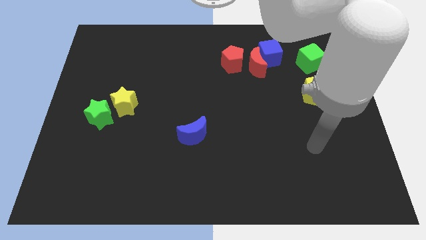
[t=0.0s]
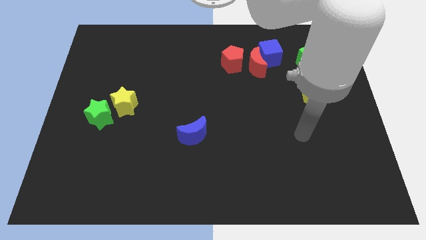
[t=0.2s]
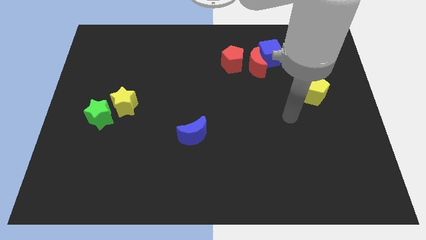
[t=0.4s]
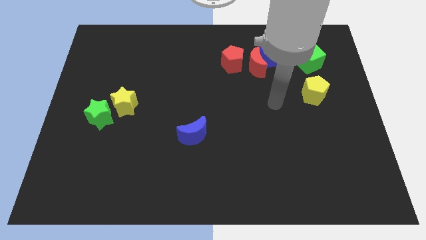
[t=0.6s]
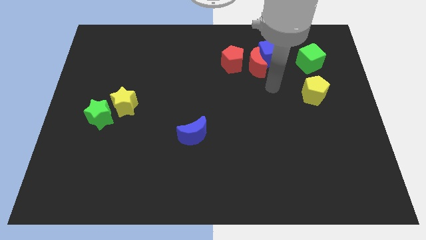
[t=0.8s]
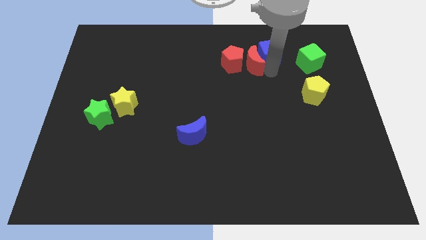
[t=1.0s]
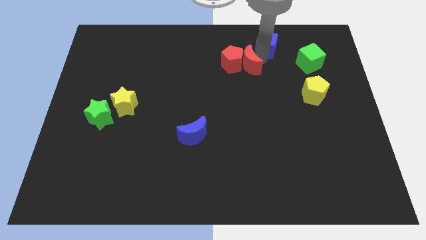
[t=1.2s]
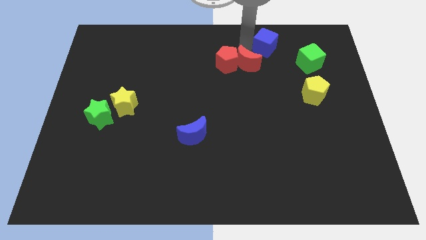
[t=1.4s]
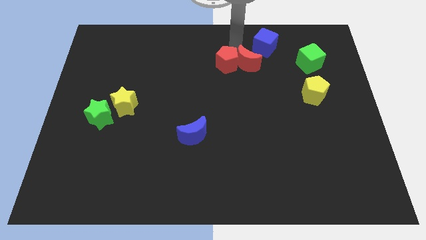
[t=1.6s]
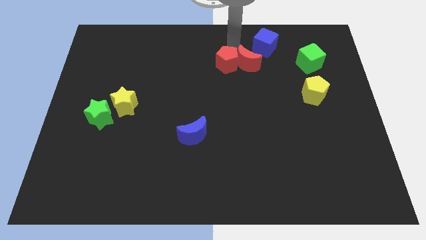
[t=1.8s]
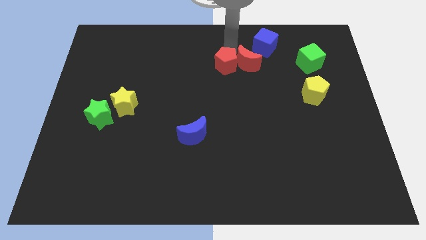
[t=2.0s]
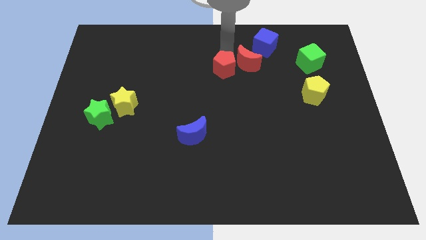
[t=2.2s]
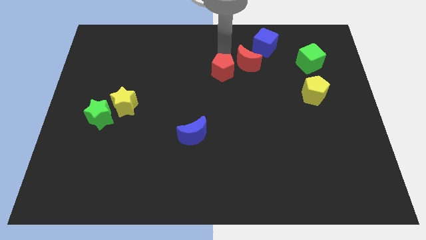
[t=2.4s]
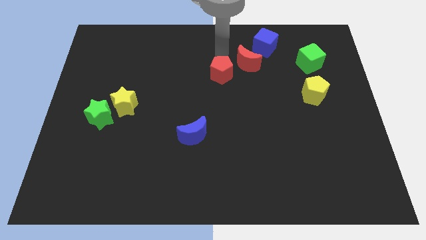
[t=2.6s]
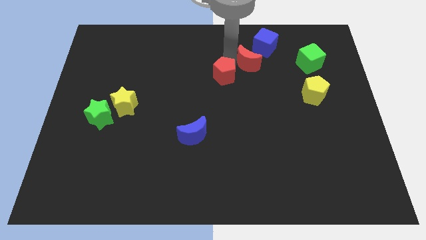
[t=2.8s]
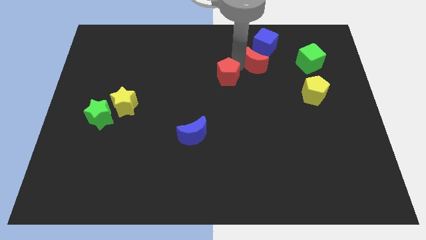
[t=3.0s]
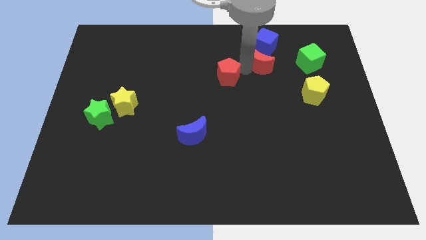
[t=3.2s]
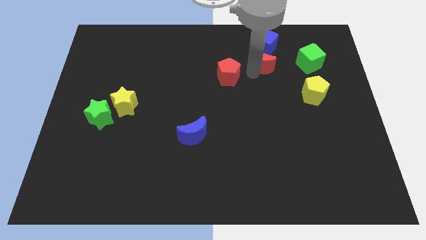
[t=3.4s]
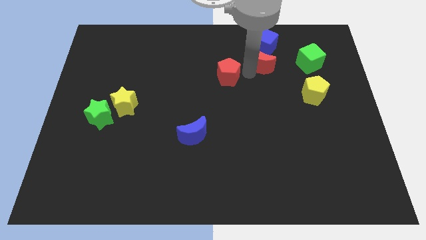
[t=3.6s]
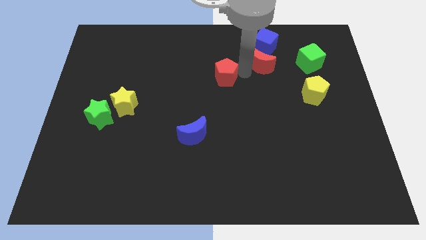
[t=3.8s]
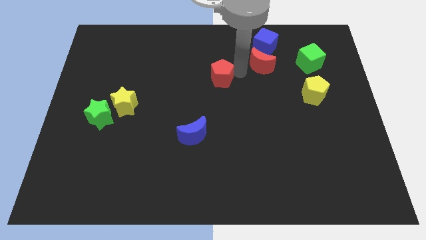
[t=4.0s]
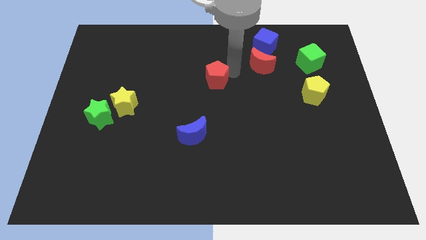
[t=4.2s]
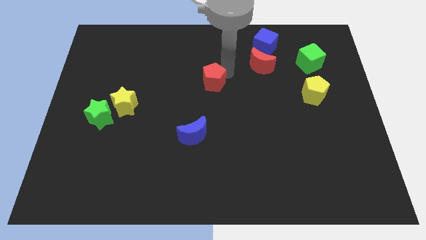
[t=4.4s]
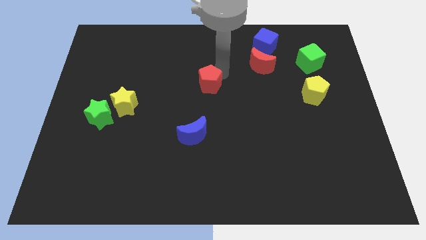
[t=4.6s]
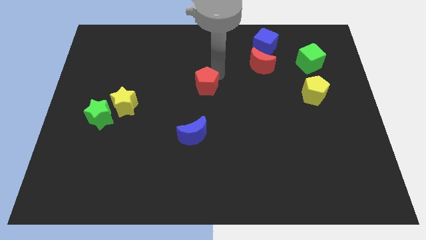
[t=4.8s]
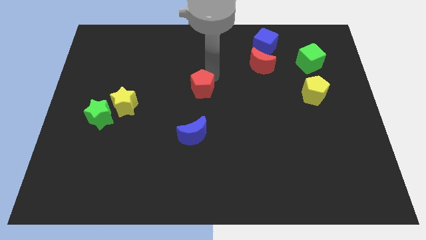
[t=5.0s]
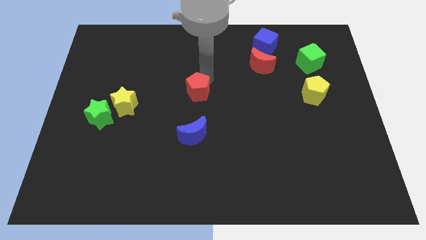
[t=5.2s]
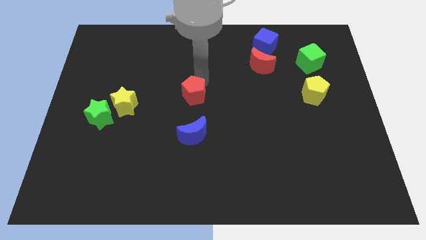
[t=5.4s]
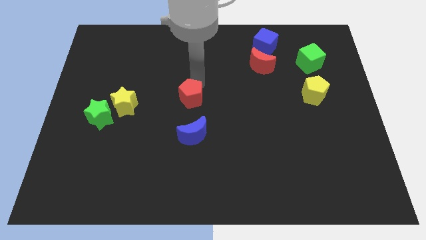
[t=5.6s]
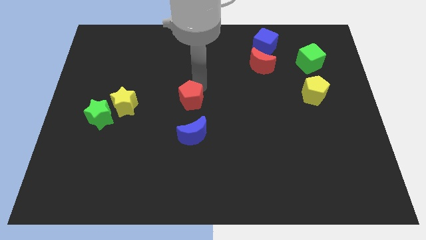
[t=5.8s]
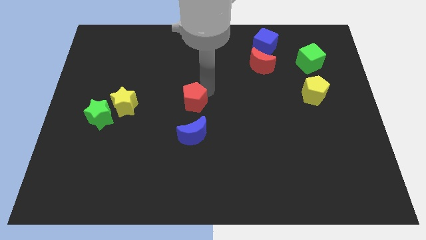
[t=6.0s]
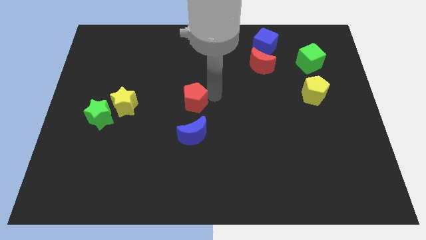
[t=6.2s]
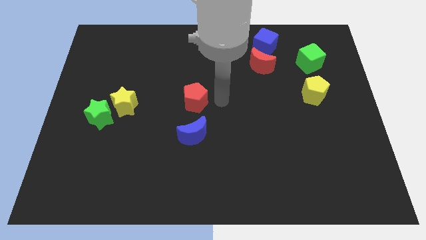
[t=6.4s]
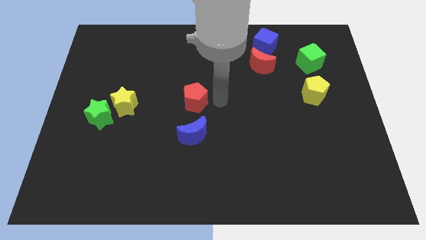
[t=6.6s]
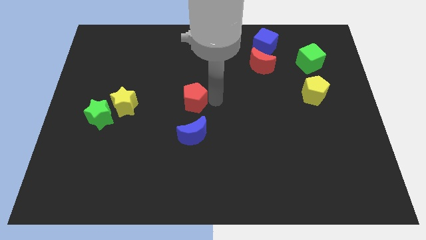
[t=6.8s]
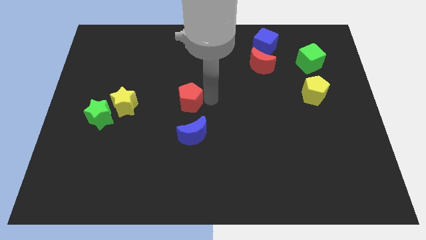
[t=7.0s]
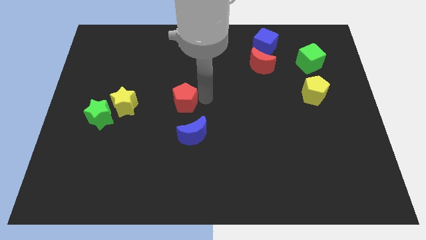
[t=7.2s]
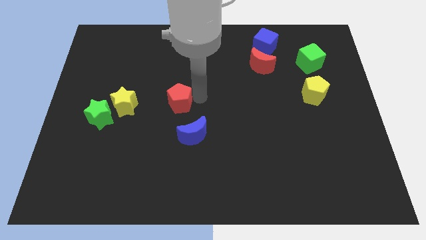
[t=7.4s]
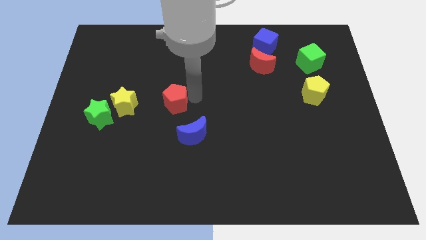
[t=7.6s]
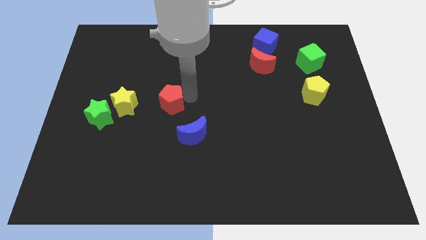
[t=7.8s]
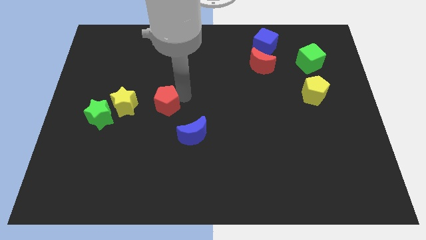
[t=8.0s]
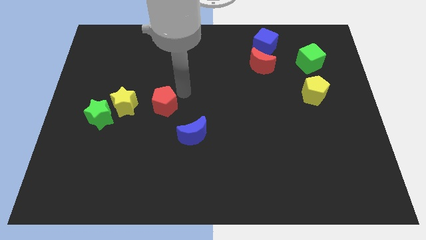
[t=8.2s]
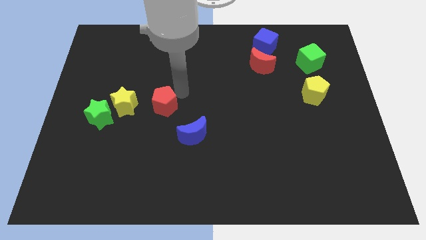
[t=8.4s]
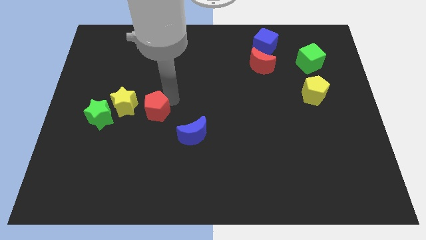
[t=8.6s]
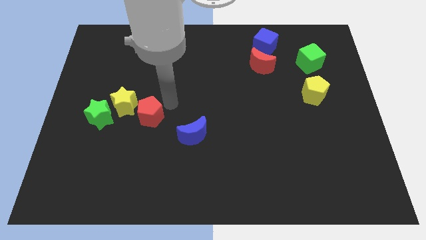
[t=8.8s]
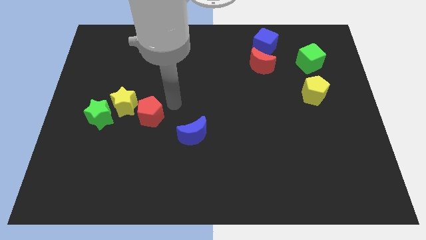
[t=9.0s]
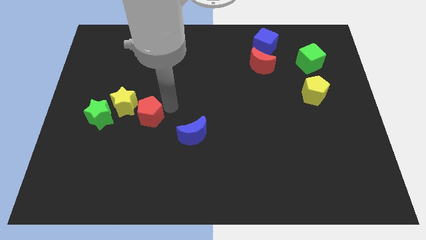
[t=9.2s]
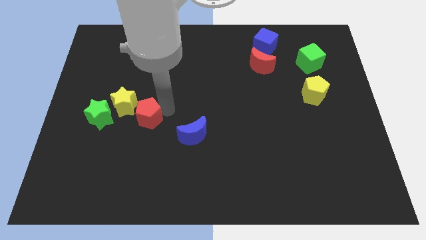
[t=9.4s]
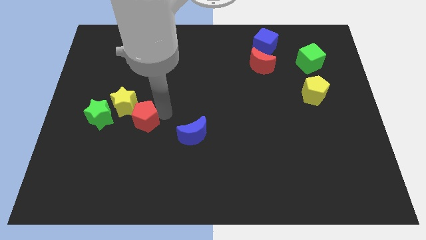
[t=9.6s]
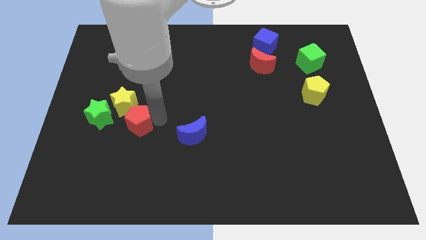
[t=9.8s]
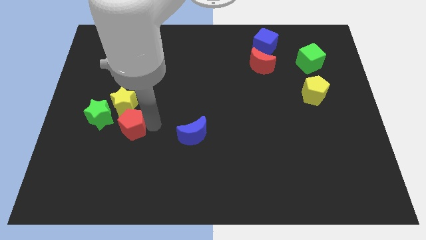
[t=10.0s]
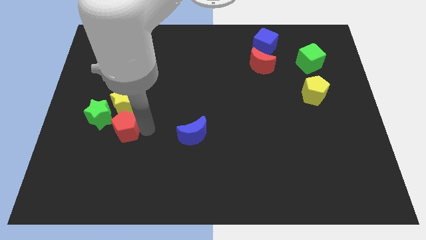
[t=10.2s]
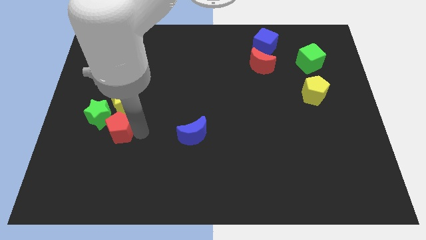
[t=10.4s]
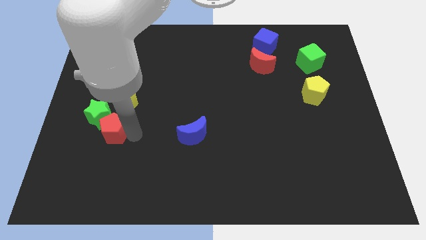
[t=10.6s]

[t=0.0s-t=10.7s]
move the red pentagon to the bottom left of the yellow star

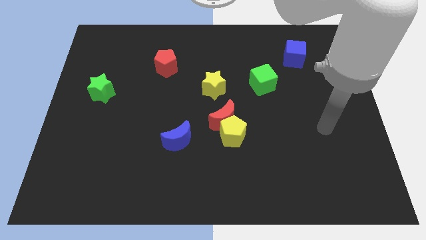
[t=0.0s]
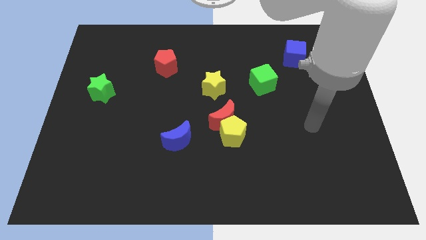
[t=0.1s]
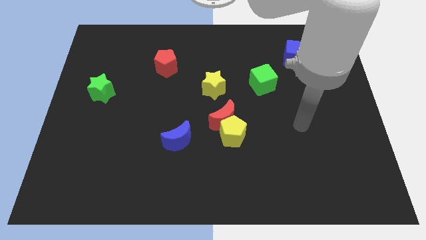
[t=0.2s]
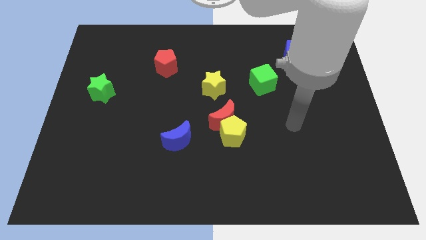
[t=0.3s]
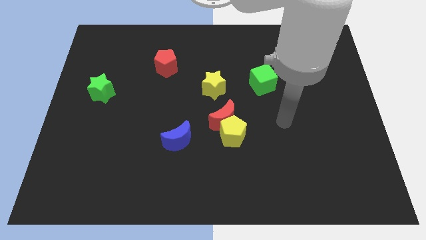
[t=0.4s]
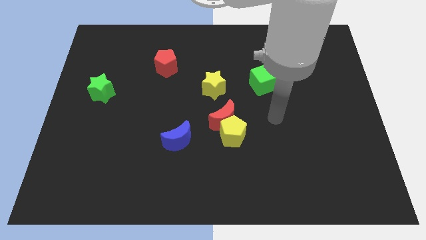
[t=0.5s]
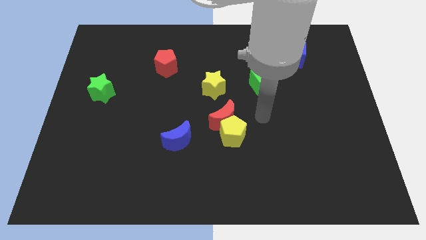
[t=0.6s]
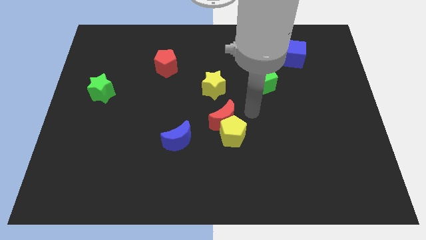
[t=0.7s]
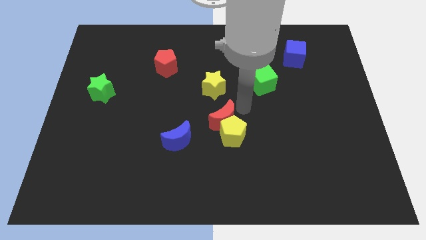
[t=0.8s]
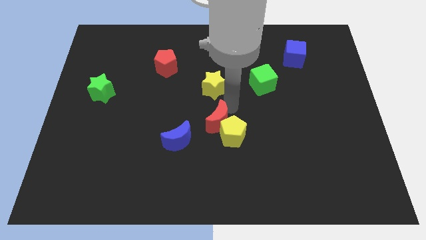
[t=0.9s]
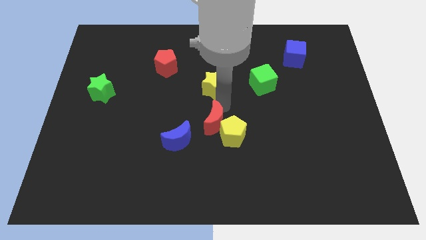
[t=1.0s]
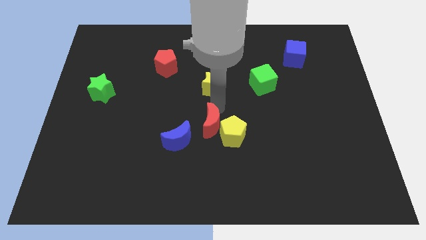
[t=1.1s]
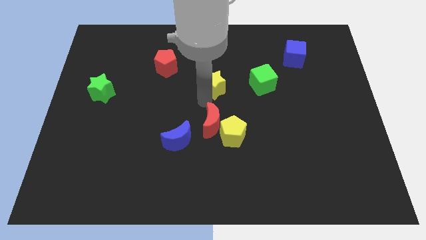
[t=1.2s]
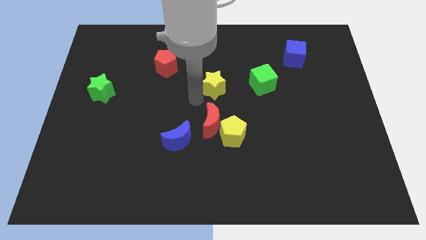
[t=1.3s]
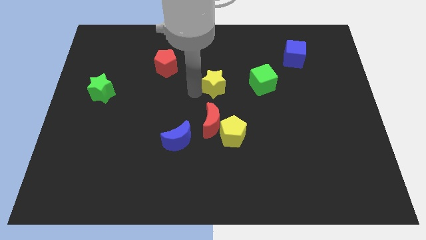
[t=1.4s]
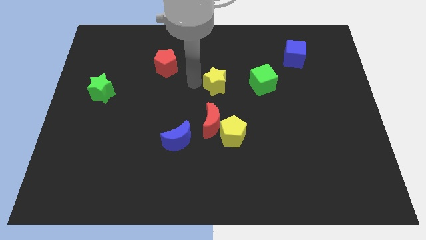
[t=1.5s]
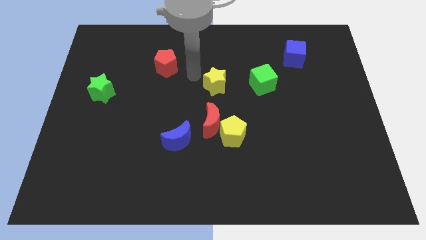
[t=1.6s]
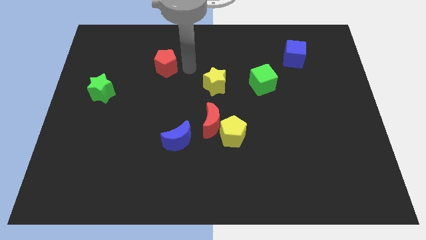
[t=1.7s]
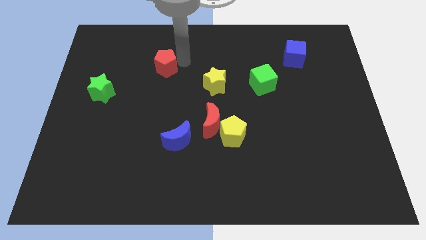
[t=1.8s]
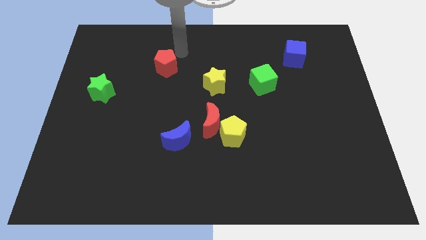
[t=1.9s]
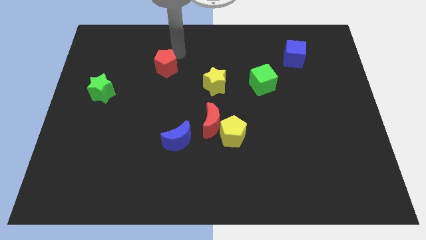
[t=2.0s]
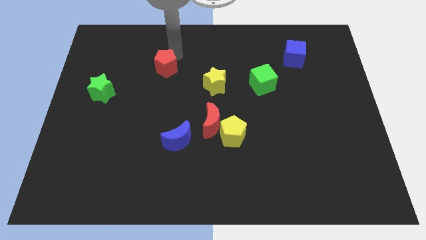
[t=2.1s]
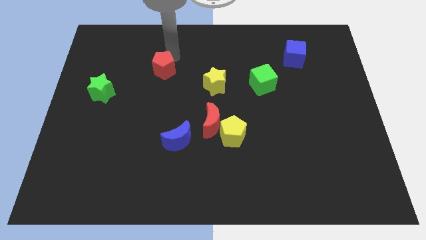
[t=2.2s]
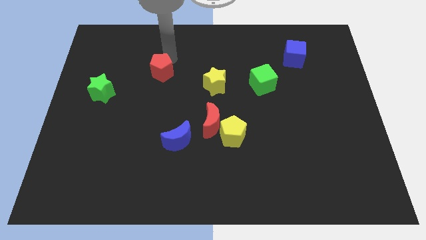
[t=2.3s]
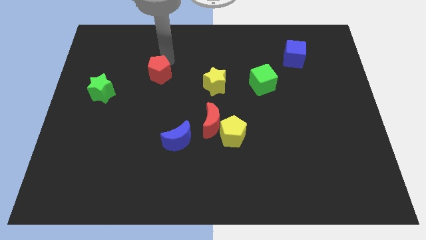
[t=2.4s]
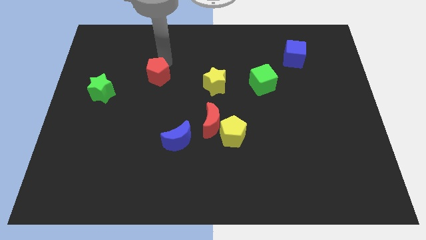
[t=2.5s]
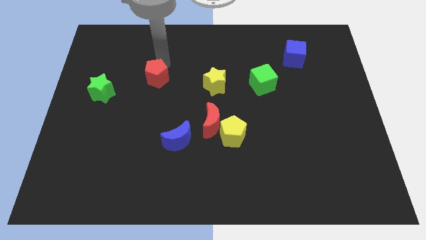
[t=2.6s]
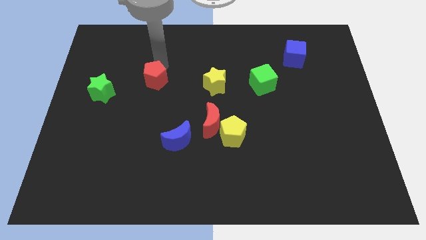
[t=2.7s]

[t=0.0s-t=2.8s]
slide the red pentagon to the right of the green star
